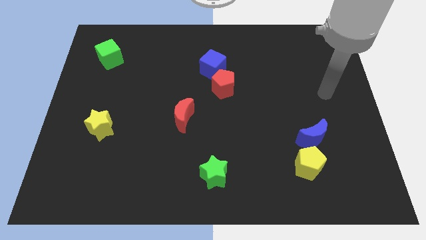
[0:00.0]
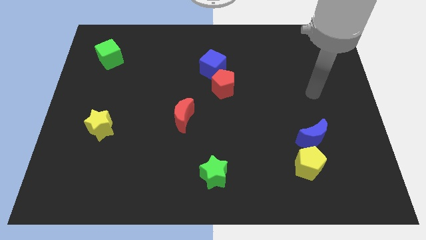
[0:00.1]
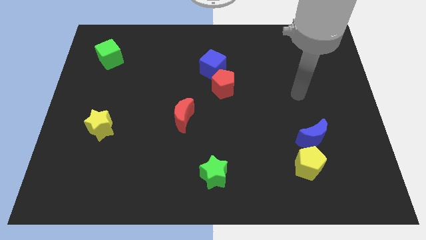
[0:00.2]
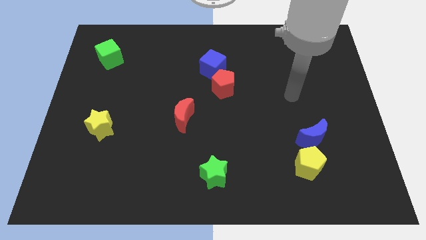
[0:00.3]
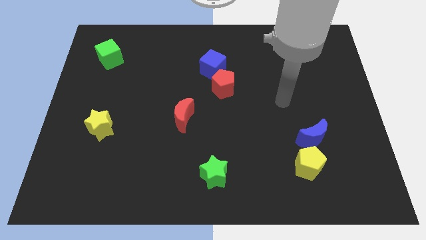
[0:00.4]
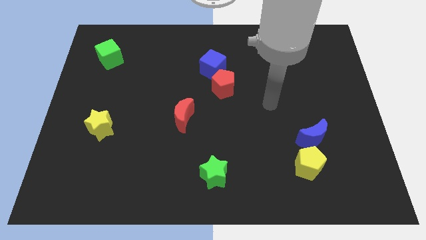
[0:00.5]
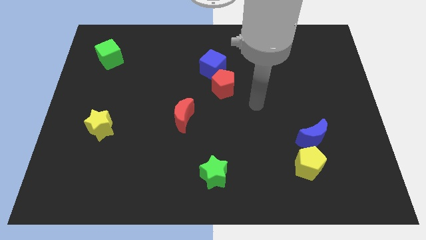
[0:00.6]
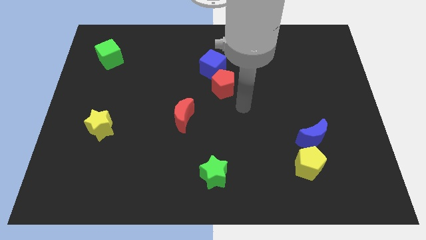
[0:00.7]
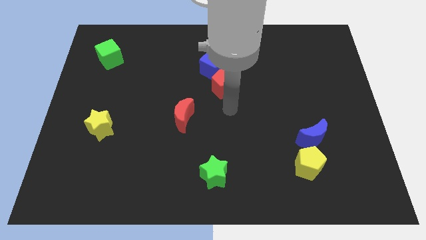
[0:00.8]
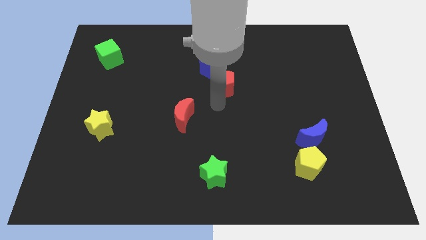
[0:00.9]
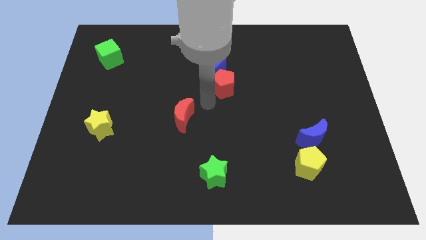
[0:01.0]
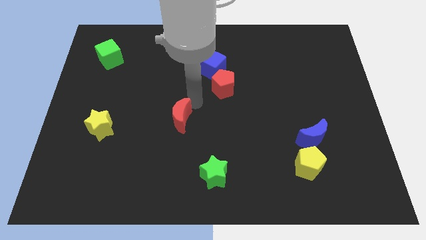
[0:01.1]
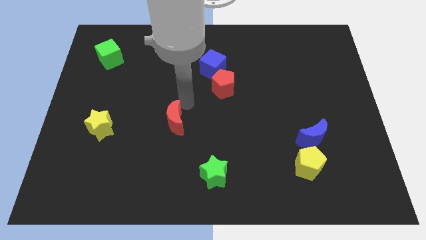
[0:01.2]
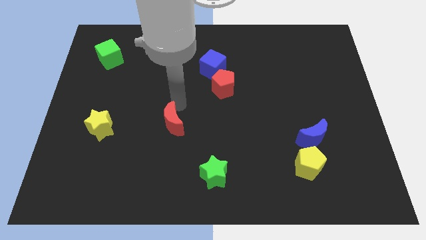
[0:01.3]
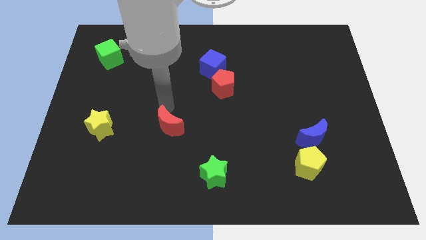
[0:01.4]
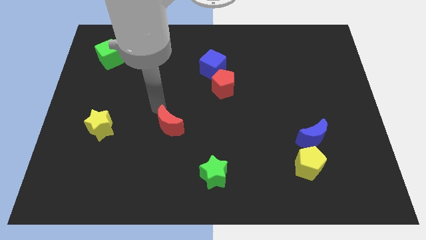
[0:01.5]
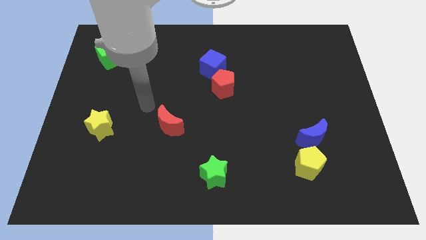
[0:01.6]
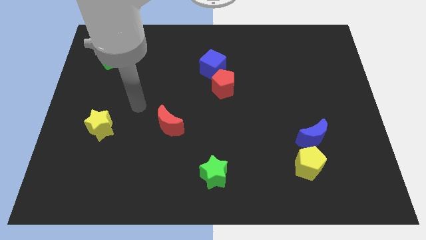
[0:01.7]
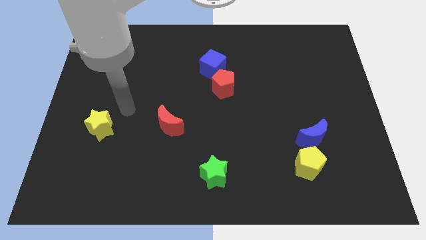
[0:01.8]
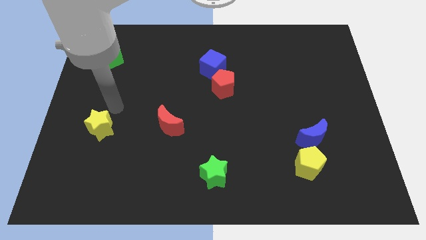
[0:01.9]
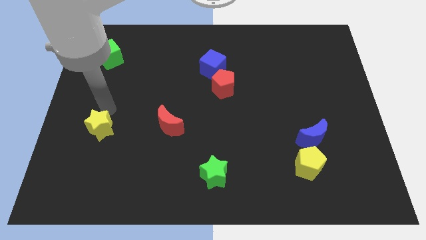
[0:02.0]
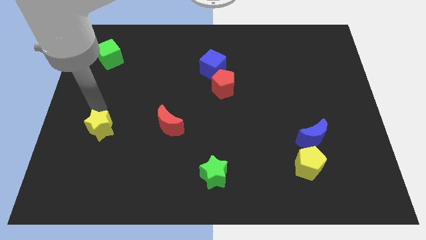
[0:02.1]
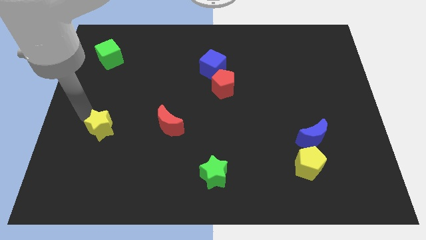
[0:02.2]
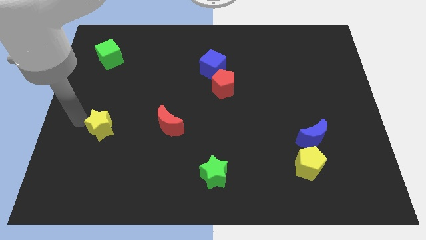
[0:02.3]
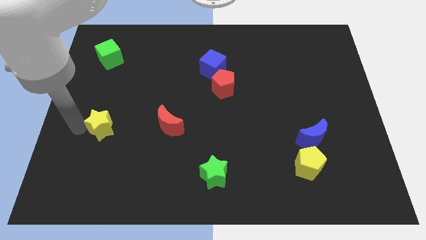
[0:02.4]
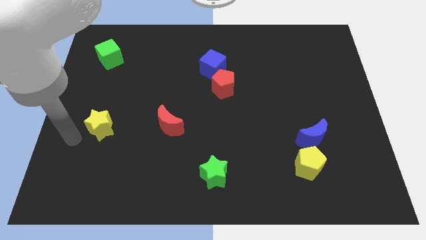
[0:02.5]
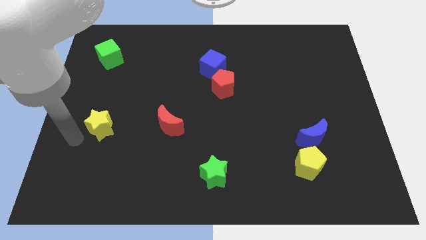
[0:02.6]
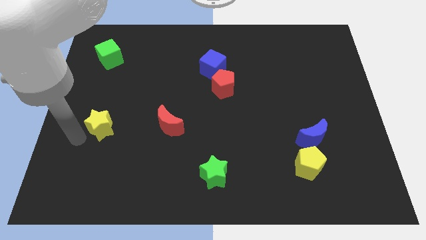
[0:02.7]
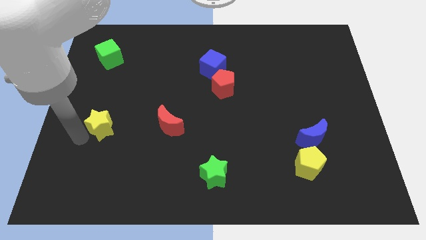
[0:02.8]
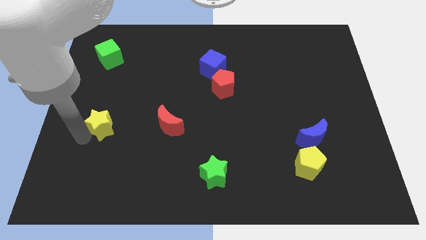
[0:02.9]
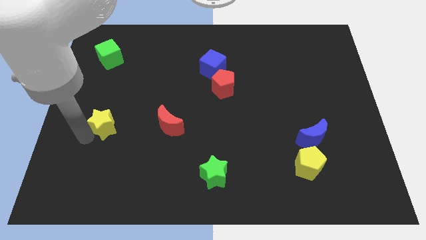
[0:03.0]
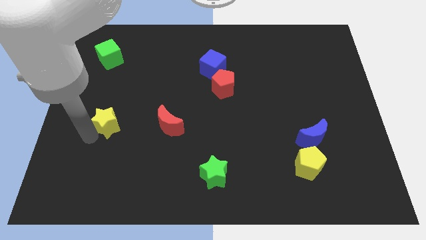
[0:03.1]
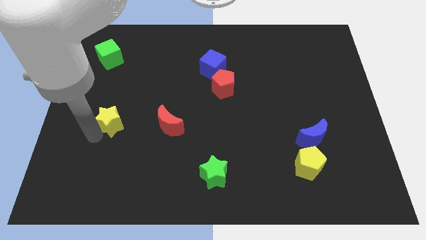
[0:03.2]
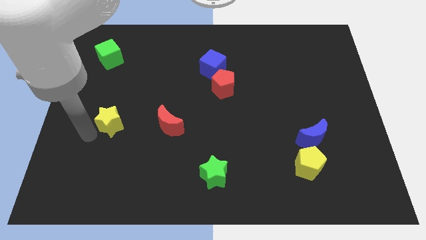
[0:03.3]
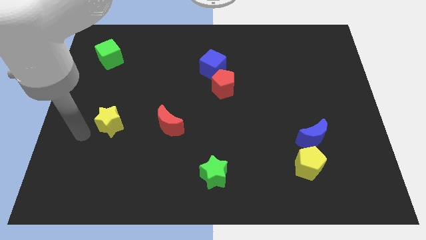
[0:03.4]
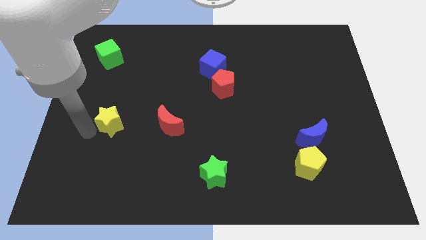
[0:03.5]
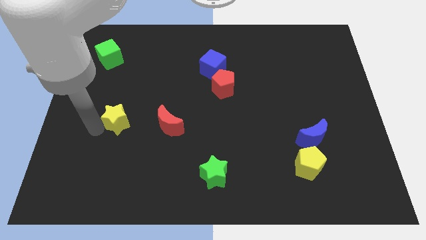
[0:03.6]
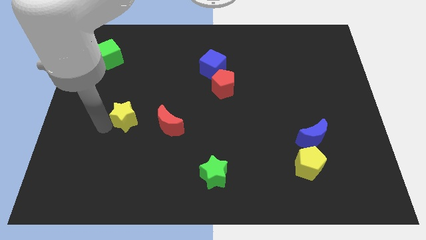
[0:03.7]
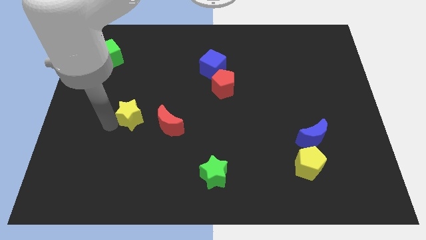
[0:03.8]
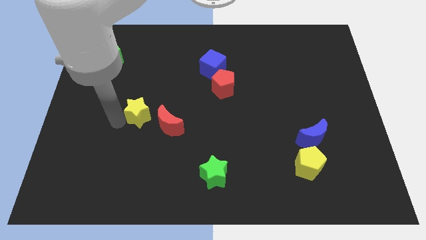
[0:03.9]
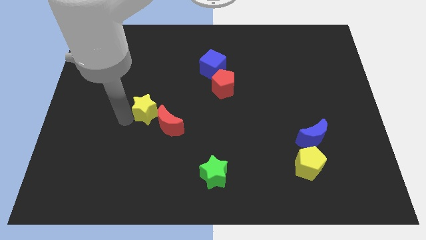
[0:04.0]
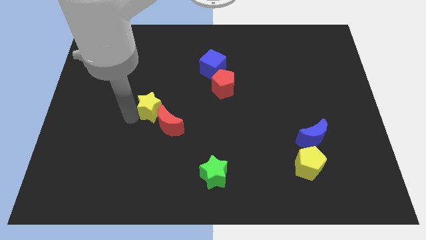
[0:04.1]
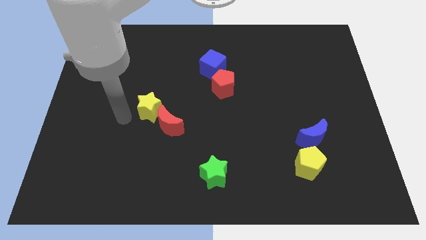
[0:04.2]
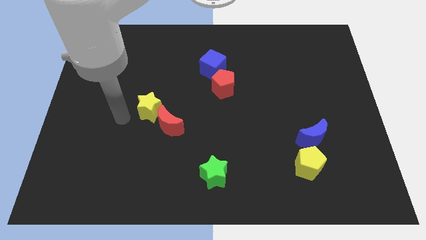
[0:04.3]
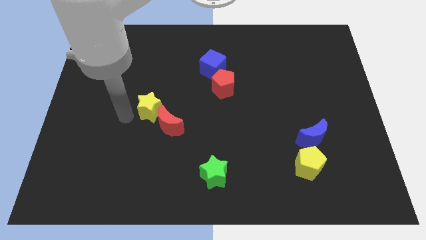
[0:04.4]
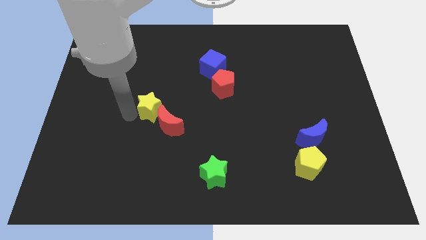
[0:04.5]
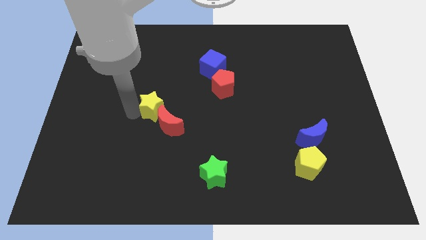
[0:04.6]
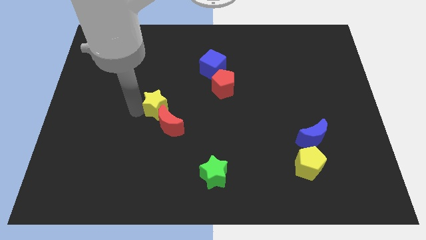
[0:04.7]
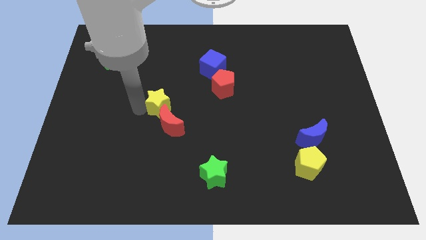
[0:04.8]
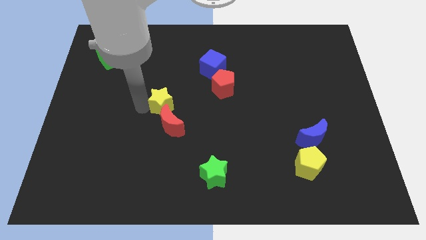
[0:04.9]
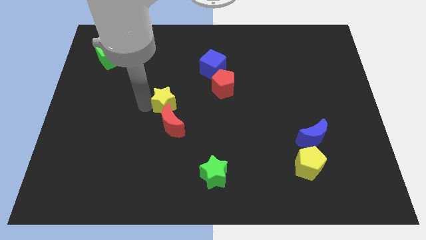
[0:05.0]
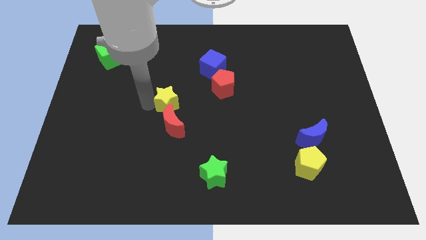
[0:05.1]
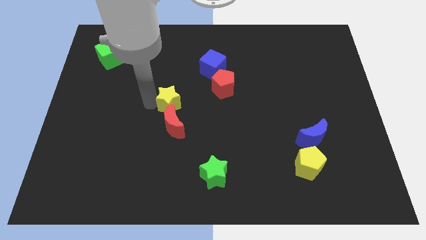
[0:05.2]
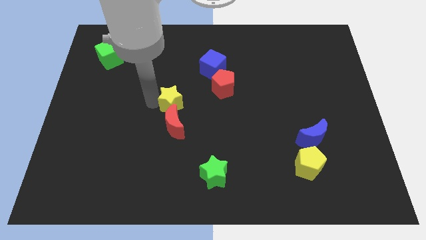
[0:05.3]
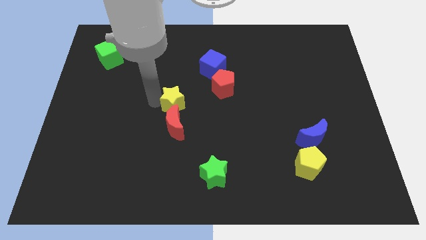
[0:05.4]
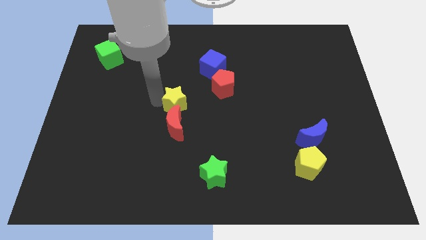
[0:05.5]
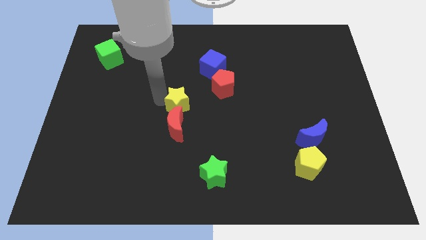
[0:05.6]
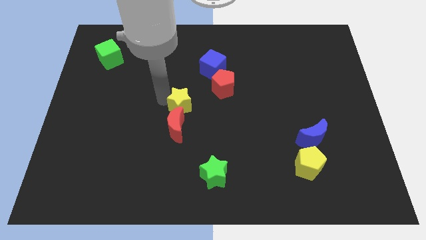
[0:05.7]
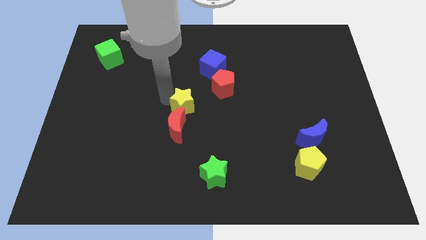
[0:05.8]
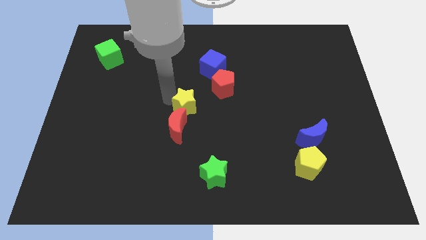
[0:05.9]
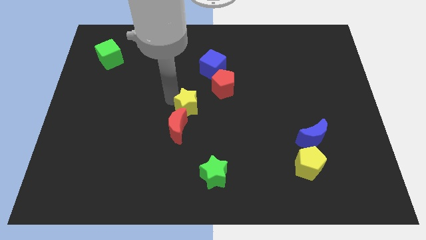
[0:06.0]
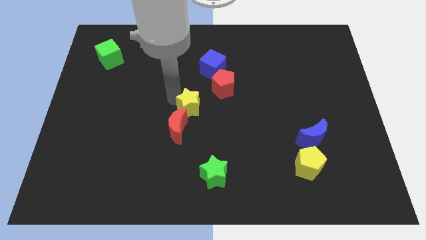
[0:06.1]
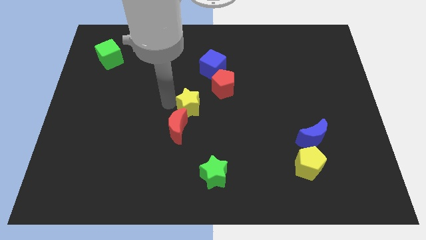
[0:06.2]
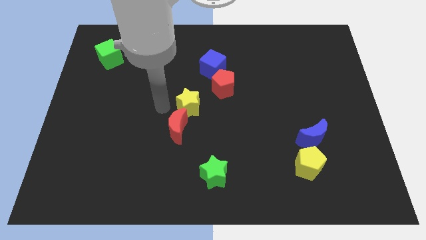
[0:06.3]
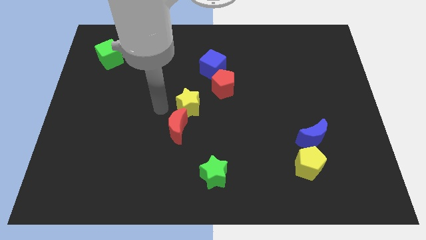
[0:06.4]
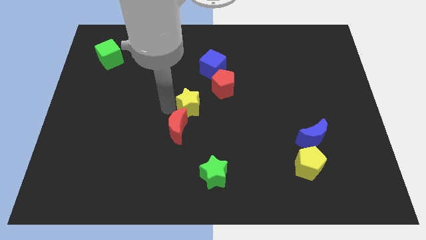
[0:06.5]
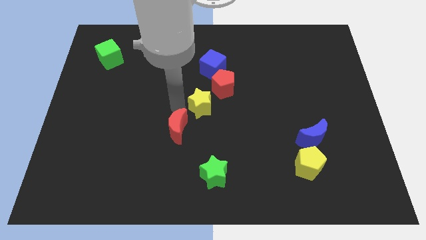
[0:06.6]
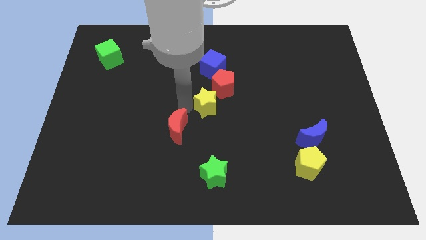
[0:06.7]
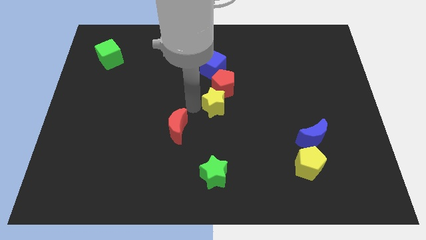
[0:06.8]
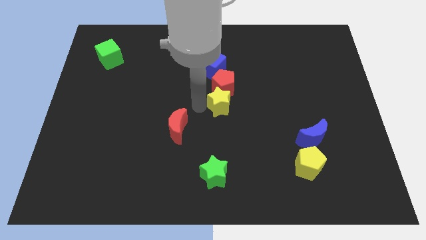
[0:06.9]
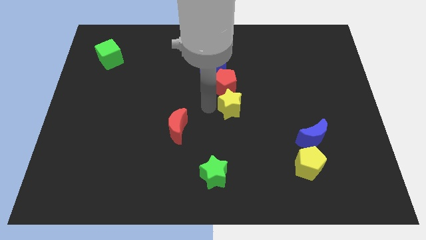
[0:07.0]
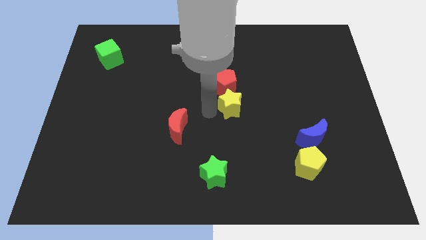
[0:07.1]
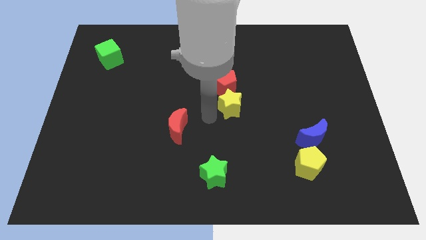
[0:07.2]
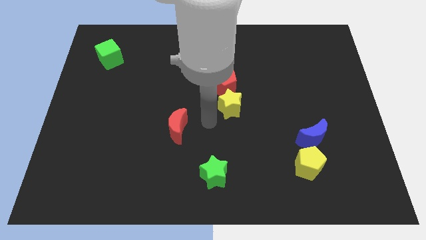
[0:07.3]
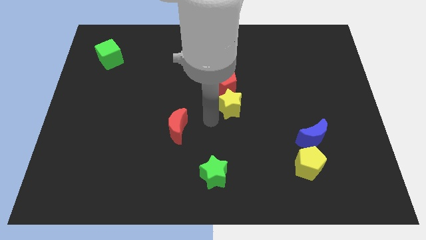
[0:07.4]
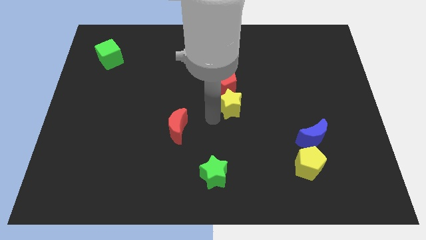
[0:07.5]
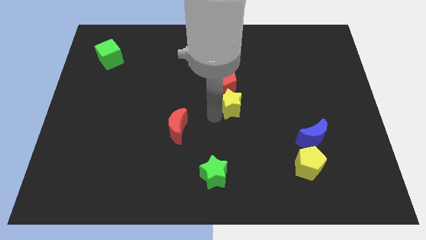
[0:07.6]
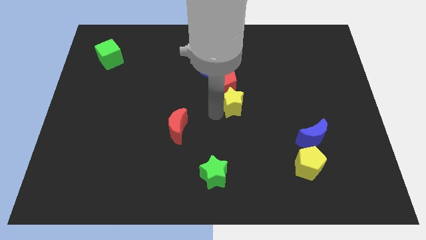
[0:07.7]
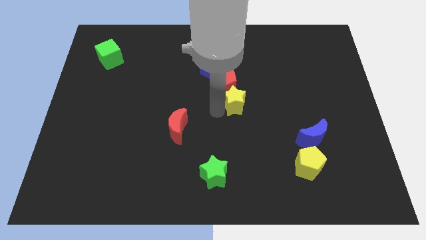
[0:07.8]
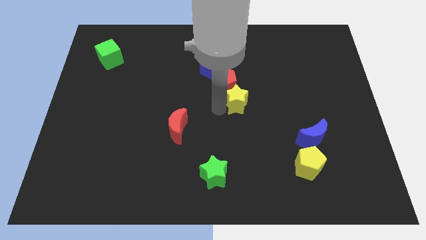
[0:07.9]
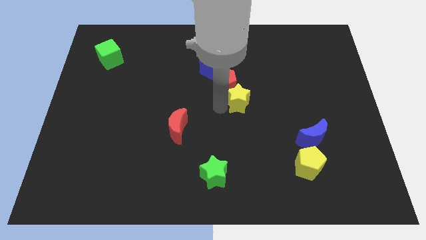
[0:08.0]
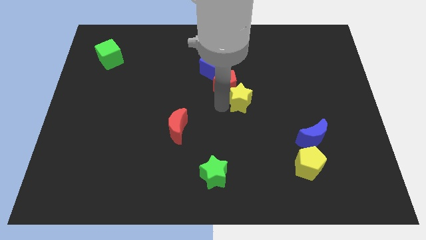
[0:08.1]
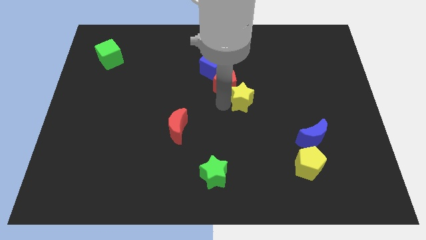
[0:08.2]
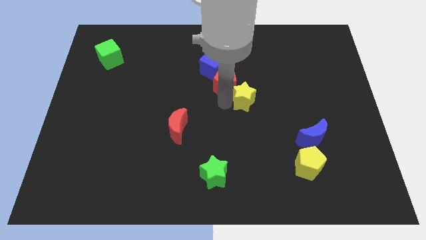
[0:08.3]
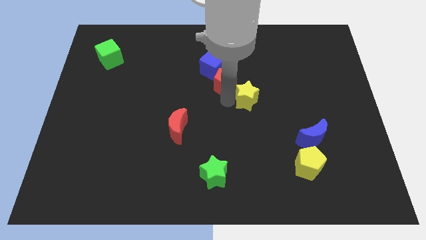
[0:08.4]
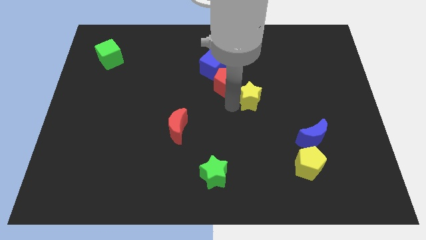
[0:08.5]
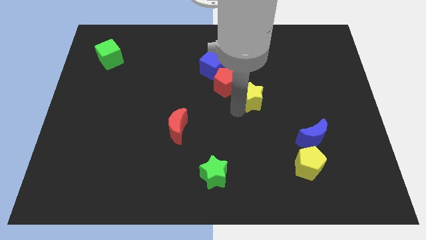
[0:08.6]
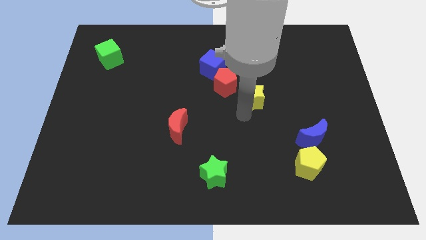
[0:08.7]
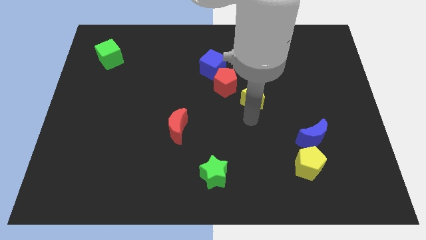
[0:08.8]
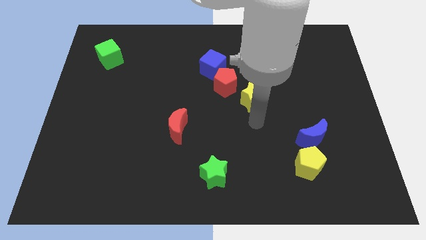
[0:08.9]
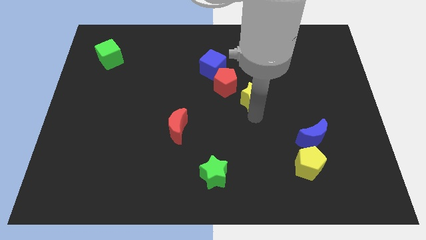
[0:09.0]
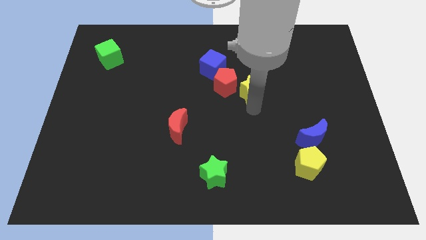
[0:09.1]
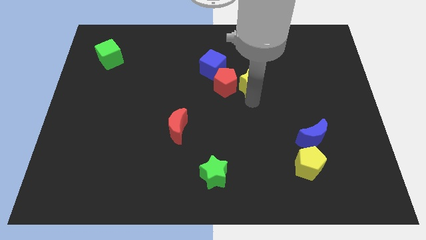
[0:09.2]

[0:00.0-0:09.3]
push the yellow star to the top right side of the red pentagon
